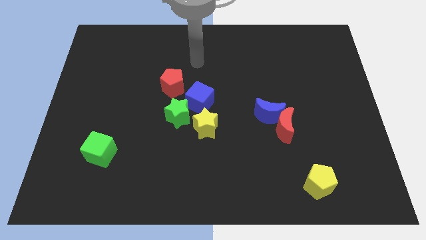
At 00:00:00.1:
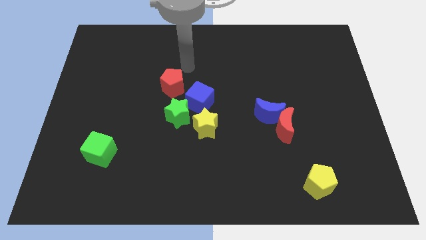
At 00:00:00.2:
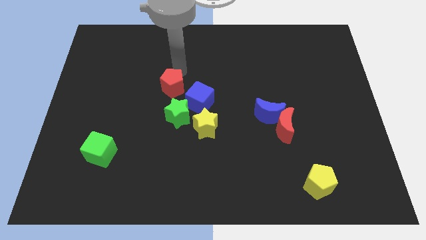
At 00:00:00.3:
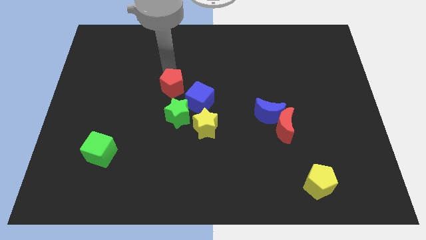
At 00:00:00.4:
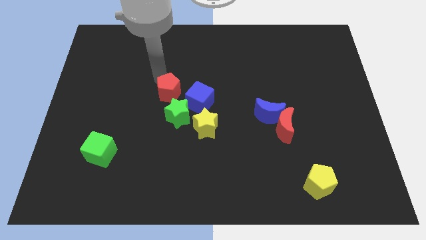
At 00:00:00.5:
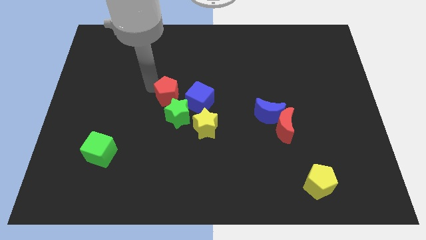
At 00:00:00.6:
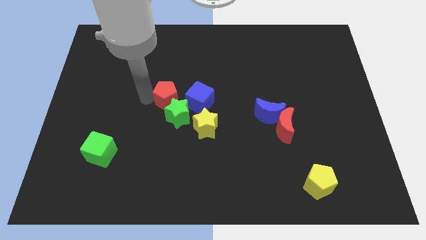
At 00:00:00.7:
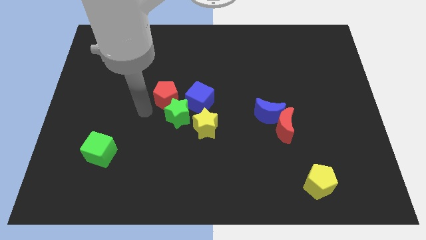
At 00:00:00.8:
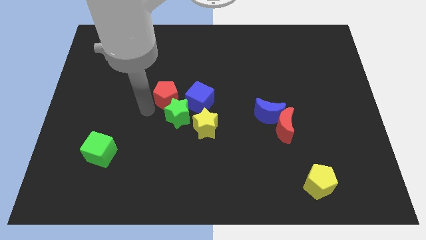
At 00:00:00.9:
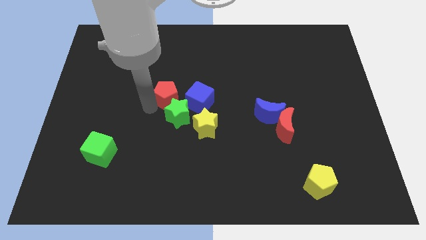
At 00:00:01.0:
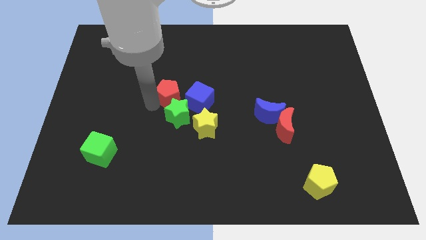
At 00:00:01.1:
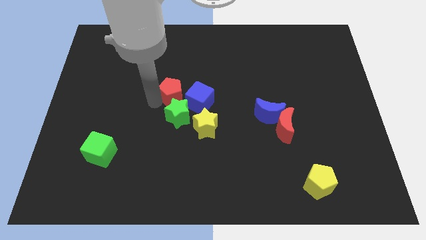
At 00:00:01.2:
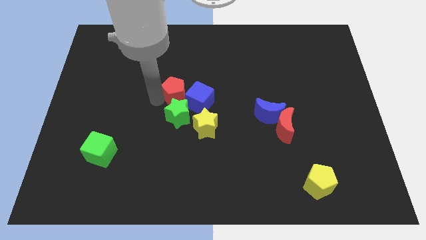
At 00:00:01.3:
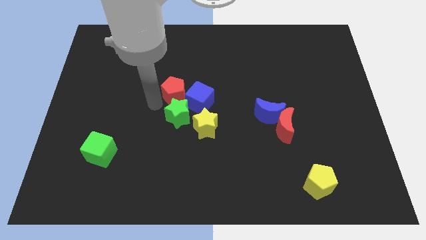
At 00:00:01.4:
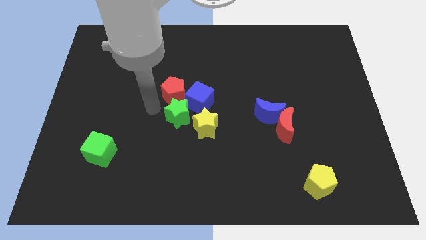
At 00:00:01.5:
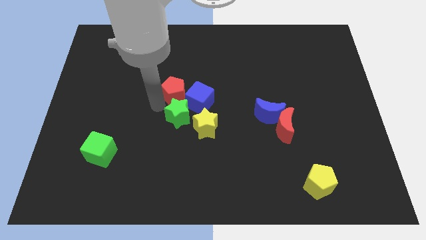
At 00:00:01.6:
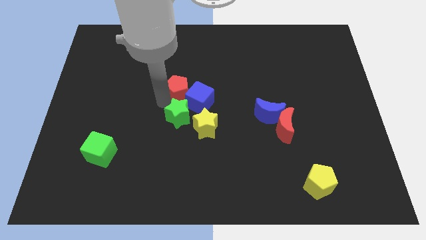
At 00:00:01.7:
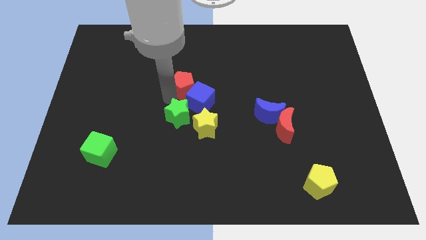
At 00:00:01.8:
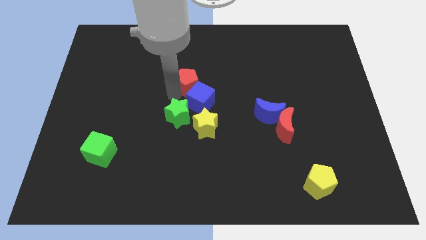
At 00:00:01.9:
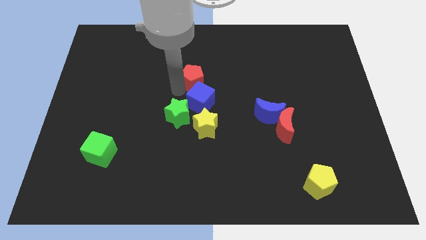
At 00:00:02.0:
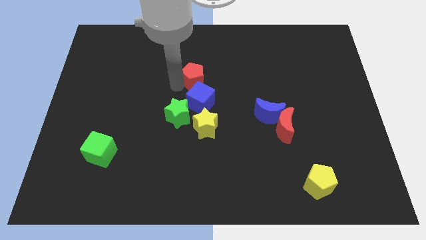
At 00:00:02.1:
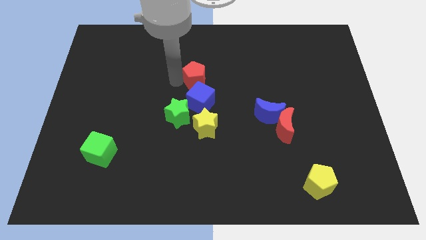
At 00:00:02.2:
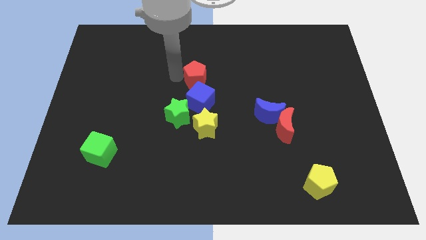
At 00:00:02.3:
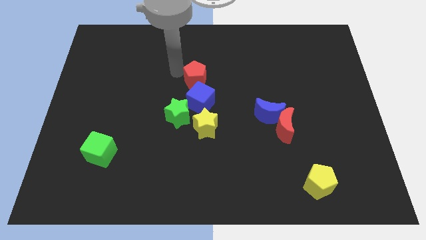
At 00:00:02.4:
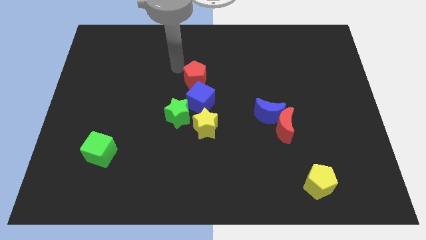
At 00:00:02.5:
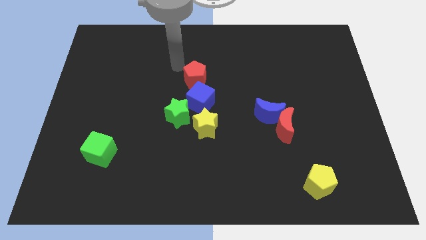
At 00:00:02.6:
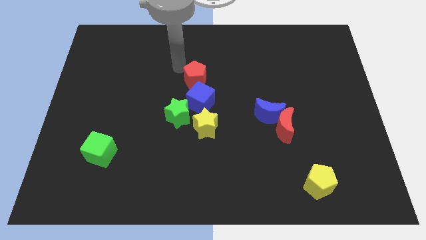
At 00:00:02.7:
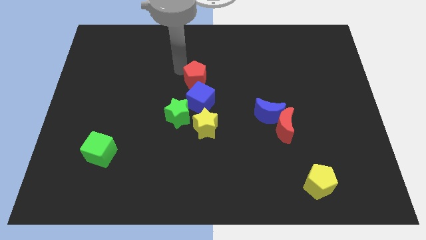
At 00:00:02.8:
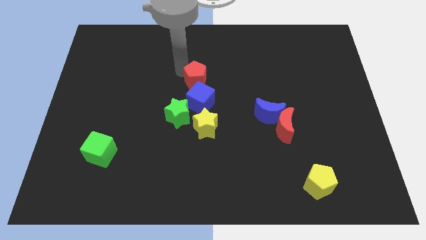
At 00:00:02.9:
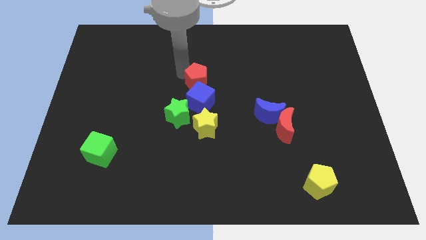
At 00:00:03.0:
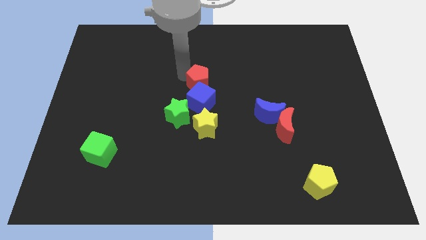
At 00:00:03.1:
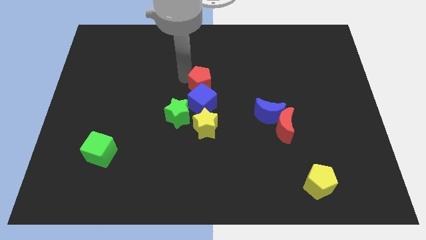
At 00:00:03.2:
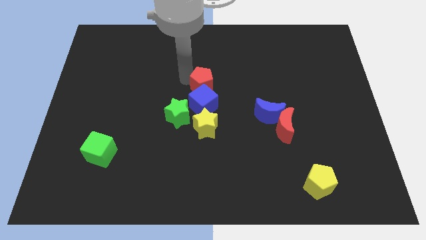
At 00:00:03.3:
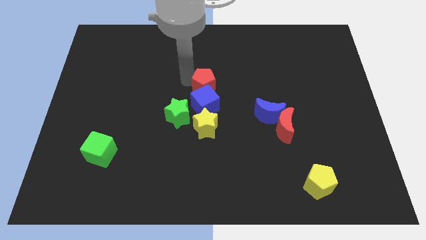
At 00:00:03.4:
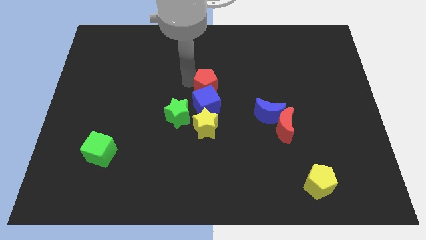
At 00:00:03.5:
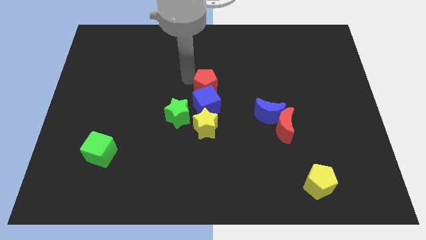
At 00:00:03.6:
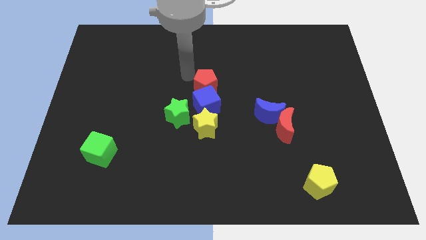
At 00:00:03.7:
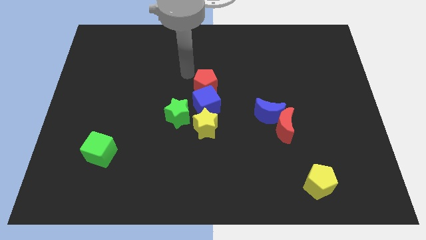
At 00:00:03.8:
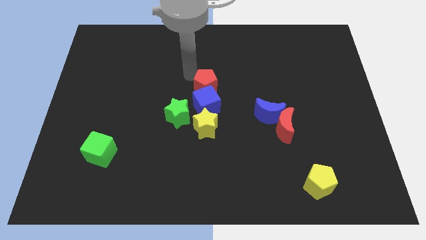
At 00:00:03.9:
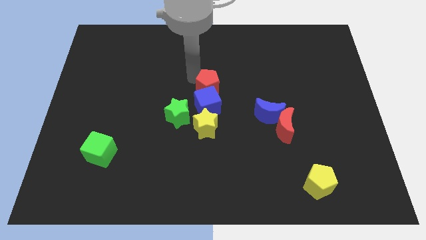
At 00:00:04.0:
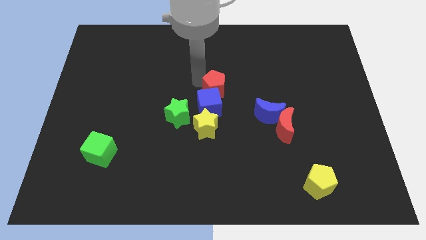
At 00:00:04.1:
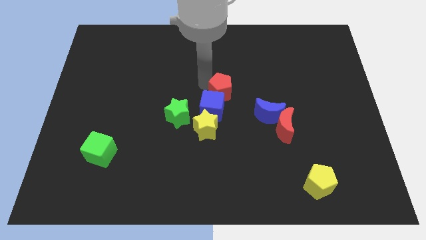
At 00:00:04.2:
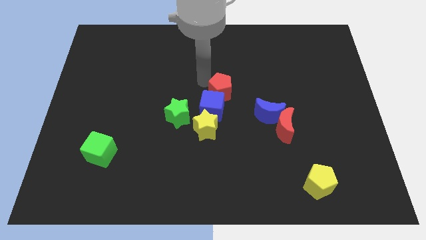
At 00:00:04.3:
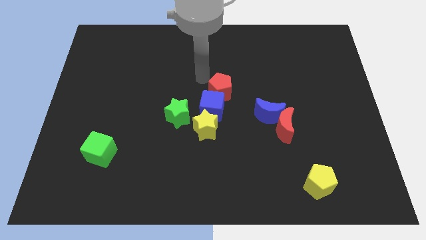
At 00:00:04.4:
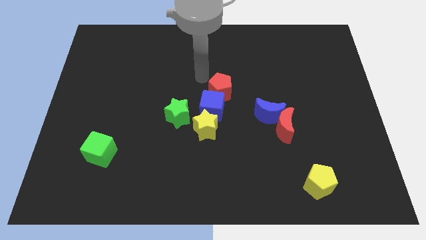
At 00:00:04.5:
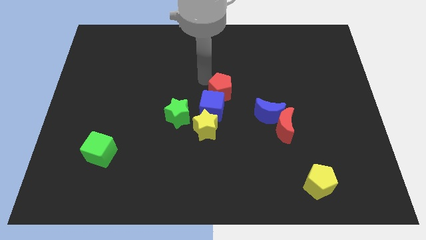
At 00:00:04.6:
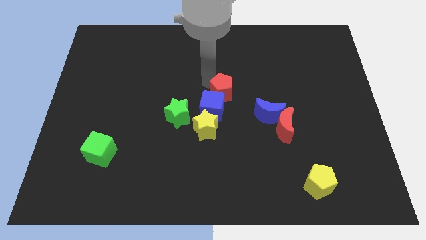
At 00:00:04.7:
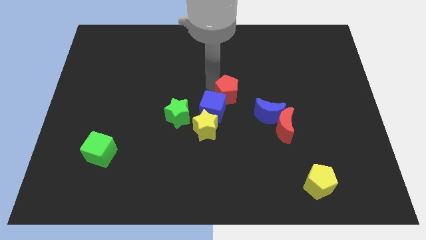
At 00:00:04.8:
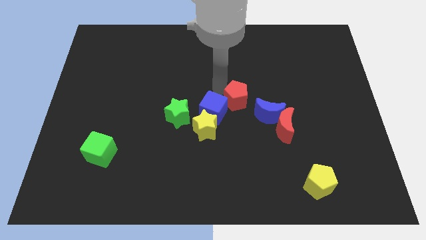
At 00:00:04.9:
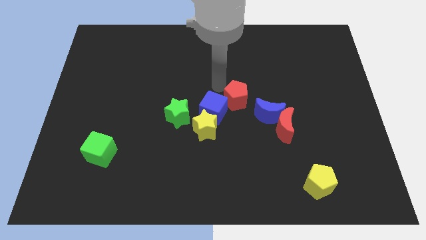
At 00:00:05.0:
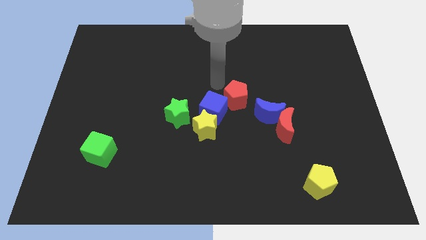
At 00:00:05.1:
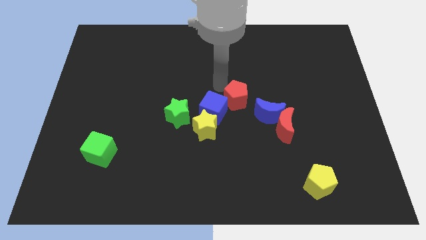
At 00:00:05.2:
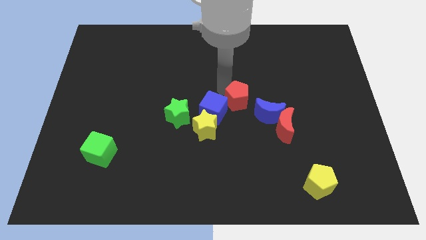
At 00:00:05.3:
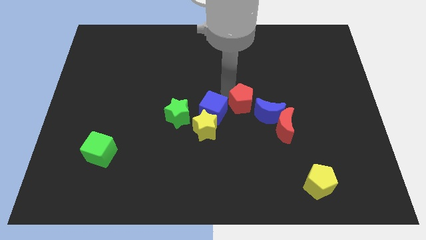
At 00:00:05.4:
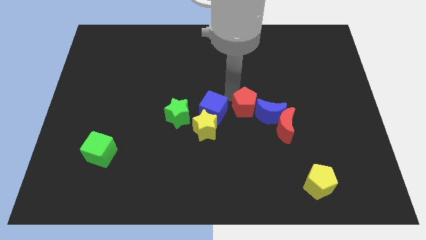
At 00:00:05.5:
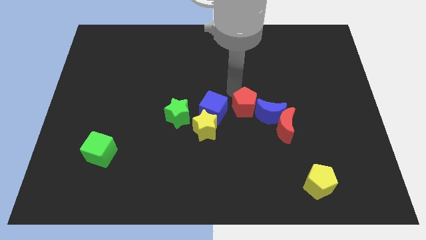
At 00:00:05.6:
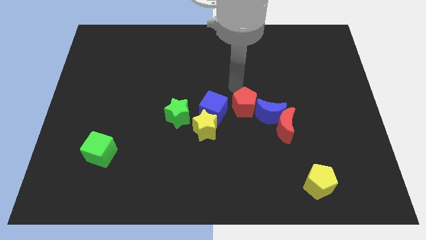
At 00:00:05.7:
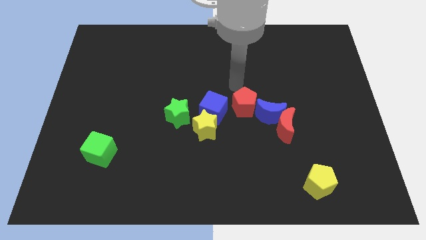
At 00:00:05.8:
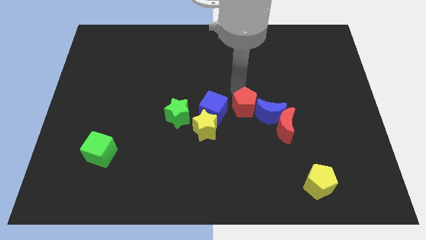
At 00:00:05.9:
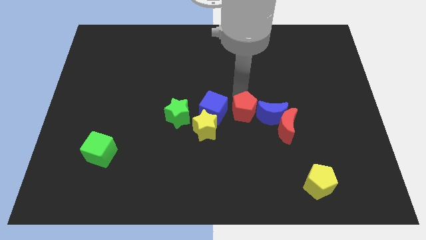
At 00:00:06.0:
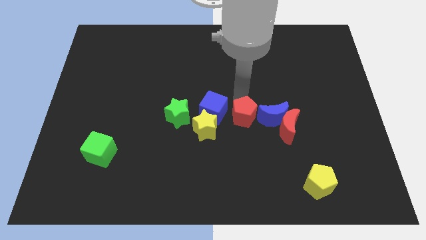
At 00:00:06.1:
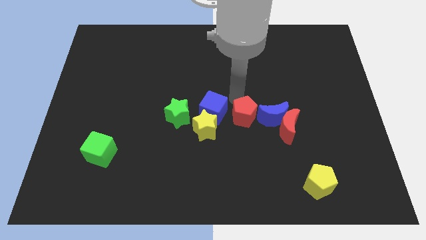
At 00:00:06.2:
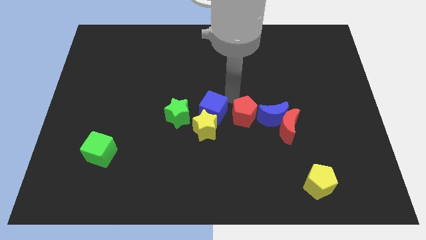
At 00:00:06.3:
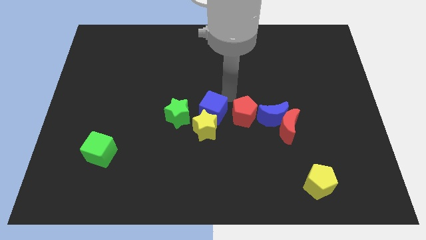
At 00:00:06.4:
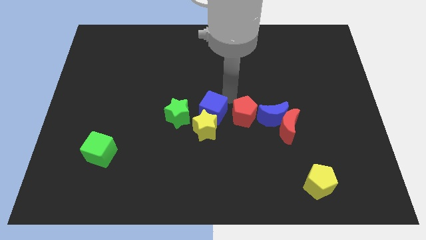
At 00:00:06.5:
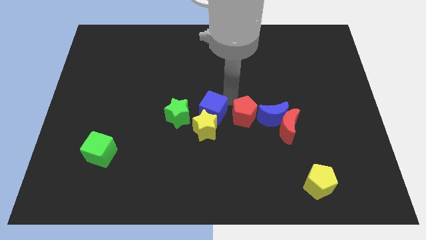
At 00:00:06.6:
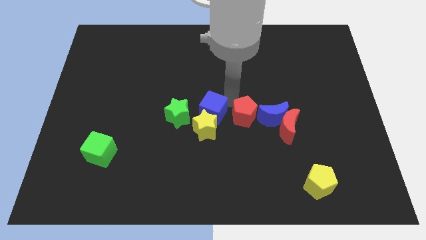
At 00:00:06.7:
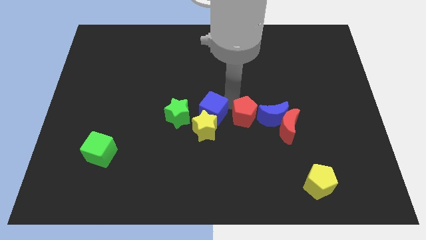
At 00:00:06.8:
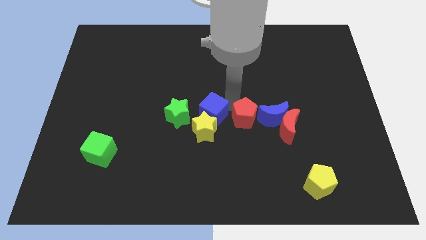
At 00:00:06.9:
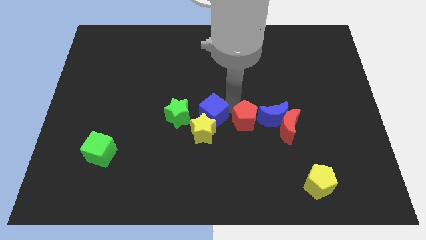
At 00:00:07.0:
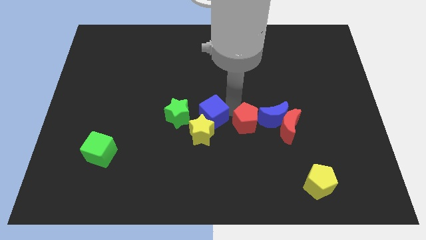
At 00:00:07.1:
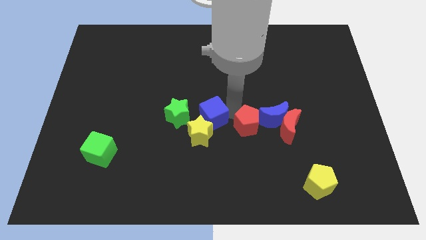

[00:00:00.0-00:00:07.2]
slide the red pentagon down and right

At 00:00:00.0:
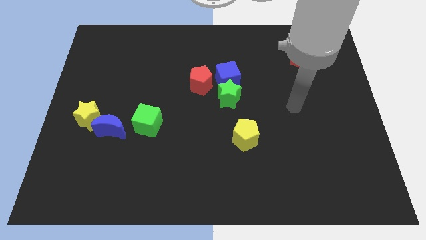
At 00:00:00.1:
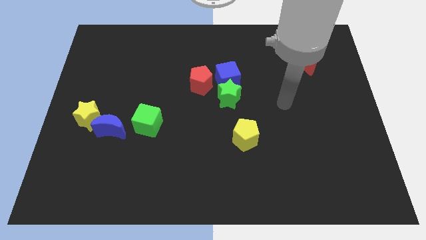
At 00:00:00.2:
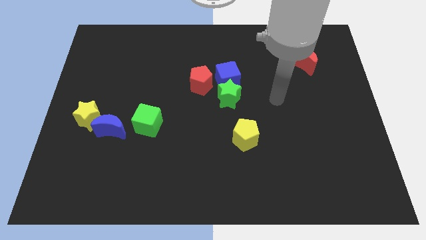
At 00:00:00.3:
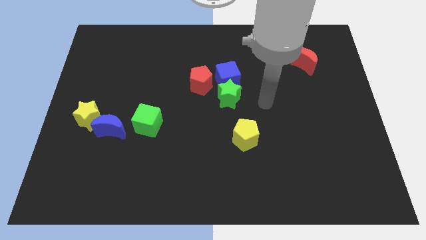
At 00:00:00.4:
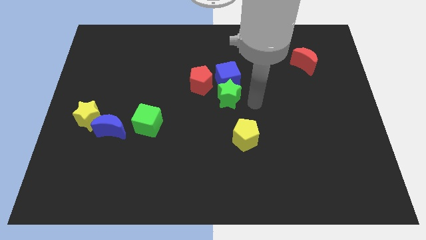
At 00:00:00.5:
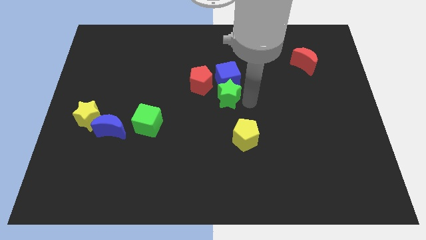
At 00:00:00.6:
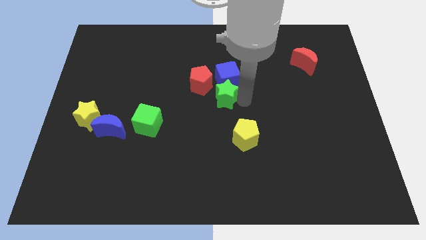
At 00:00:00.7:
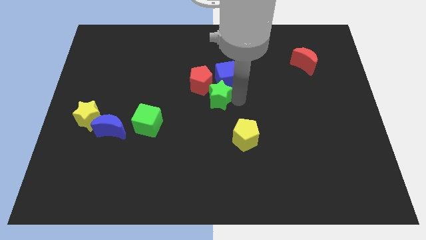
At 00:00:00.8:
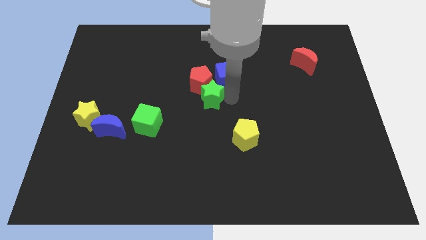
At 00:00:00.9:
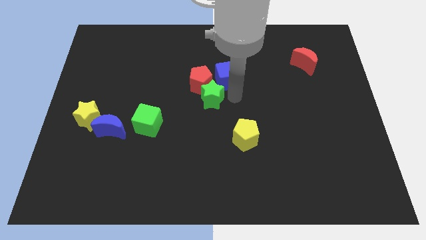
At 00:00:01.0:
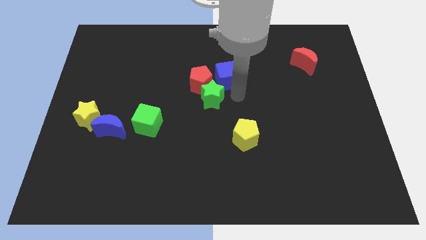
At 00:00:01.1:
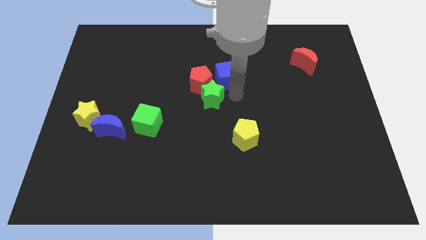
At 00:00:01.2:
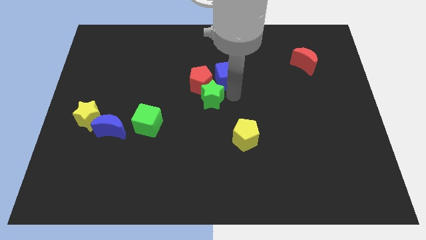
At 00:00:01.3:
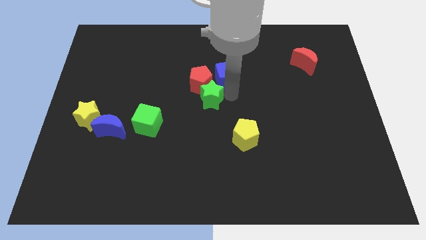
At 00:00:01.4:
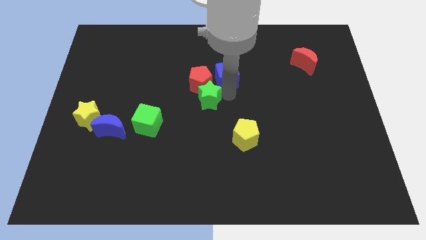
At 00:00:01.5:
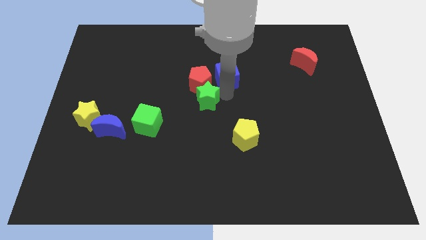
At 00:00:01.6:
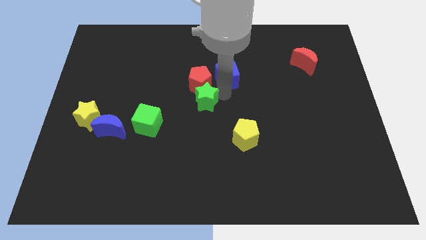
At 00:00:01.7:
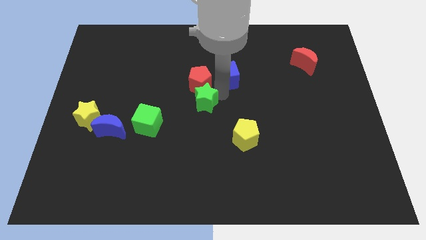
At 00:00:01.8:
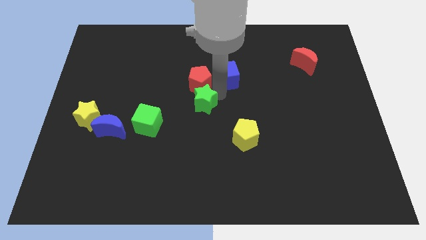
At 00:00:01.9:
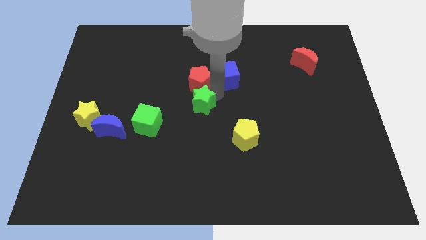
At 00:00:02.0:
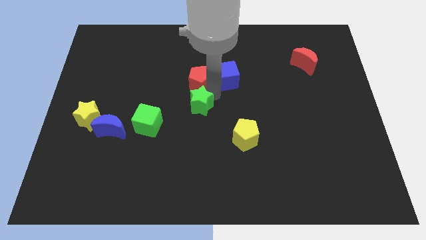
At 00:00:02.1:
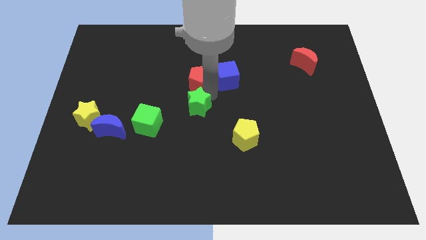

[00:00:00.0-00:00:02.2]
move the green star left slightly
